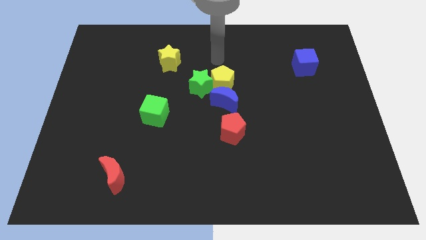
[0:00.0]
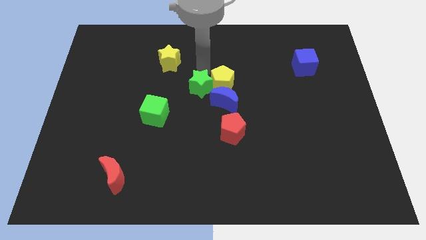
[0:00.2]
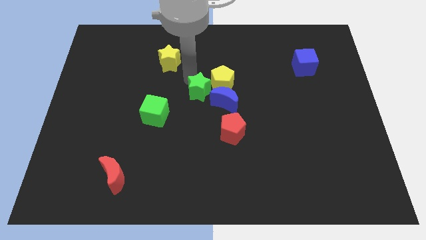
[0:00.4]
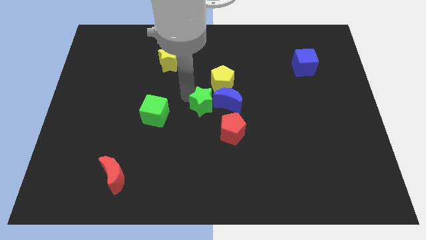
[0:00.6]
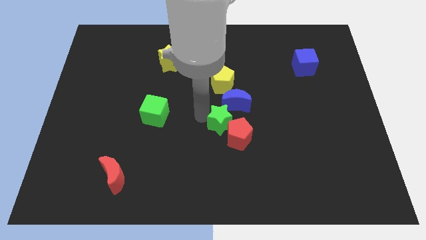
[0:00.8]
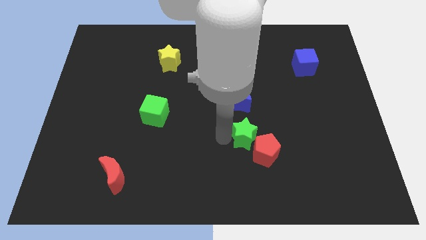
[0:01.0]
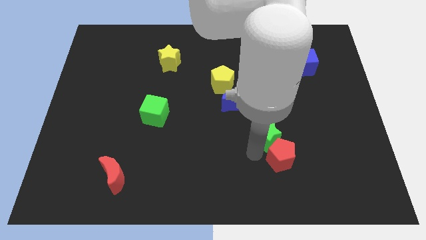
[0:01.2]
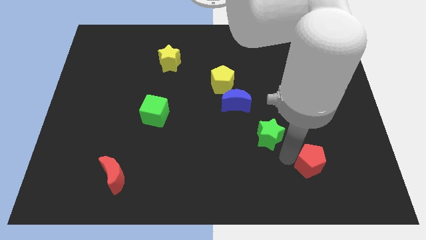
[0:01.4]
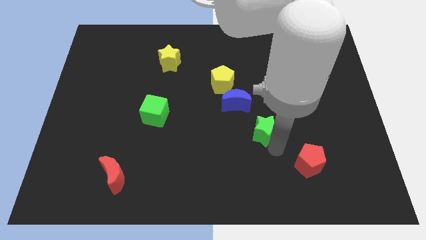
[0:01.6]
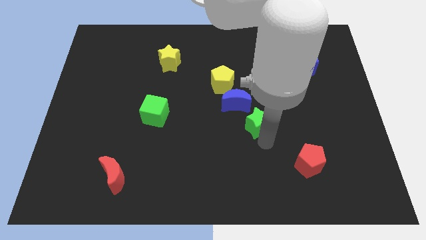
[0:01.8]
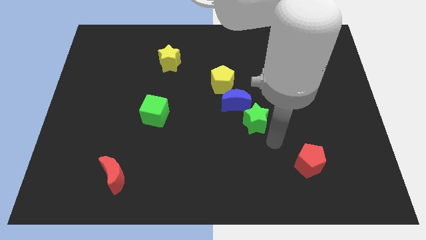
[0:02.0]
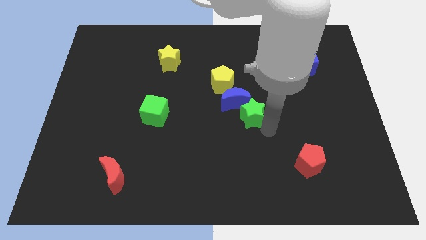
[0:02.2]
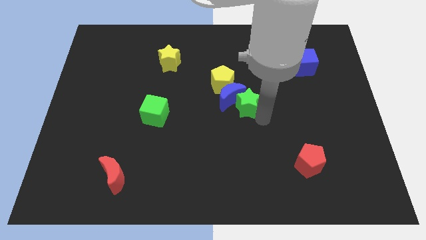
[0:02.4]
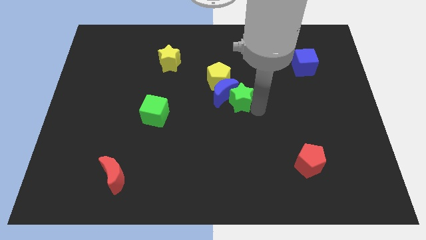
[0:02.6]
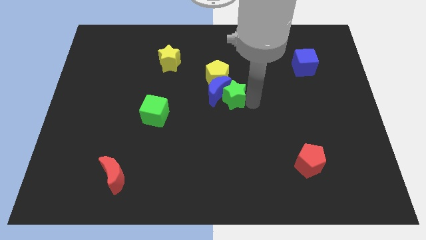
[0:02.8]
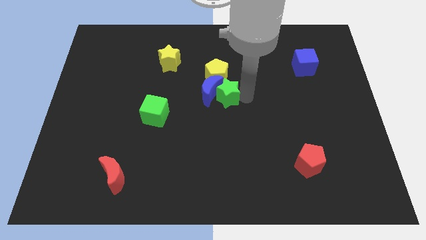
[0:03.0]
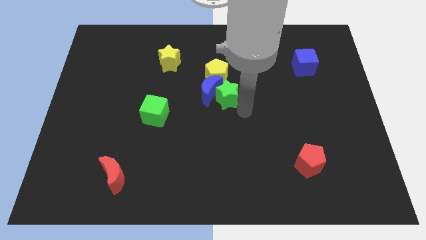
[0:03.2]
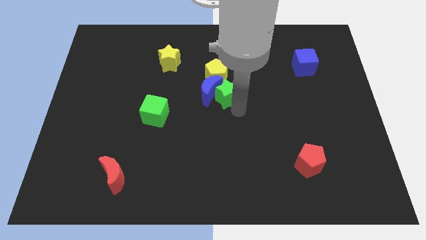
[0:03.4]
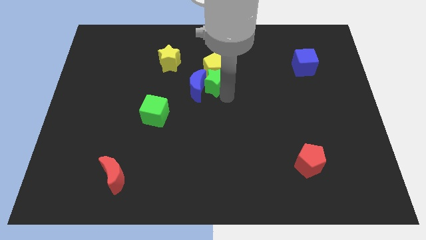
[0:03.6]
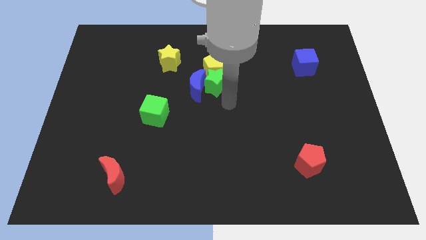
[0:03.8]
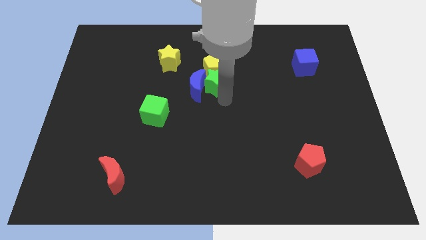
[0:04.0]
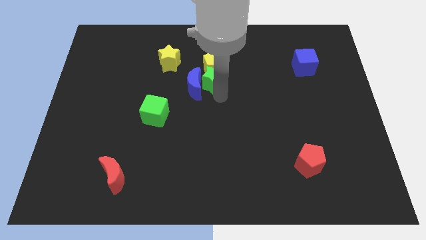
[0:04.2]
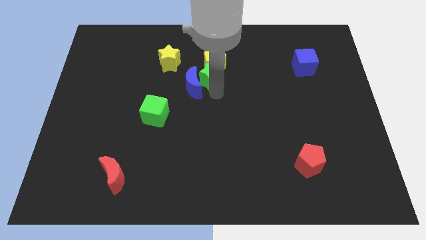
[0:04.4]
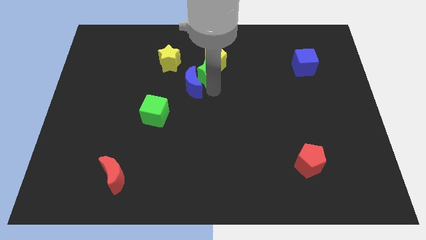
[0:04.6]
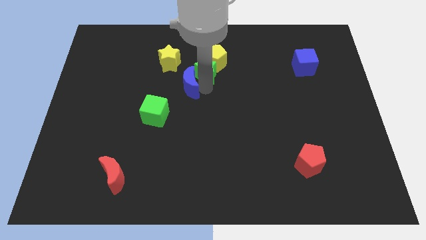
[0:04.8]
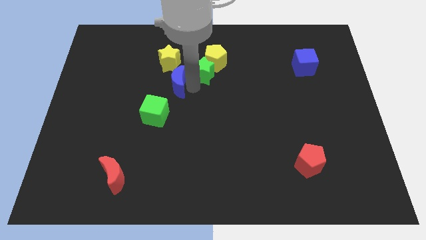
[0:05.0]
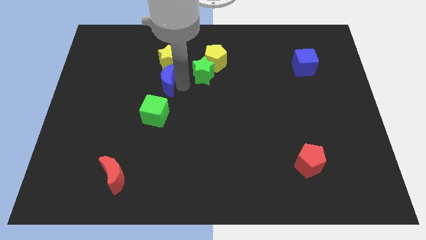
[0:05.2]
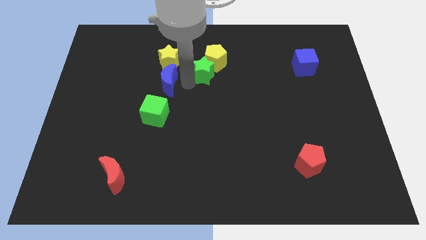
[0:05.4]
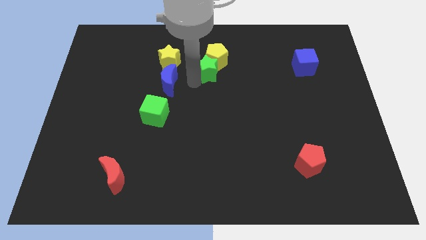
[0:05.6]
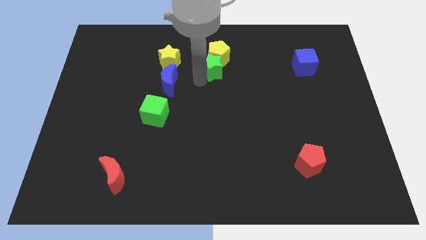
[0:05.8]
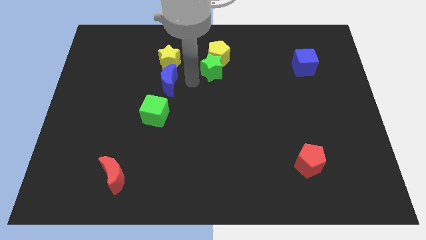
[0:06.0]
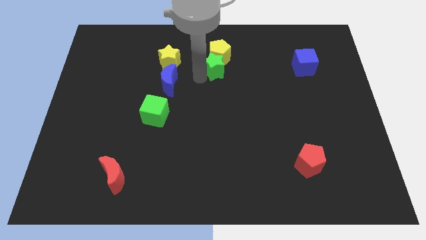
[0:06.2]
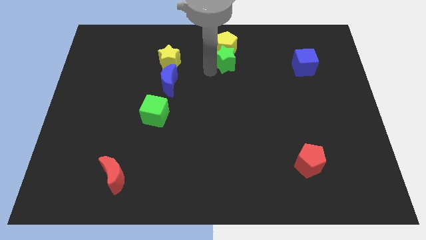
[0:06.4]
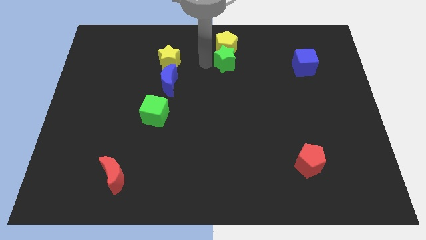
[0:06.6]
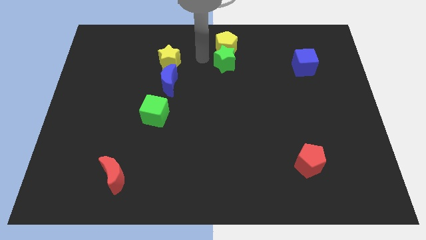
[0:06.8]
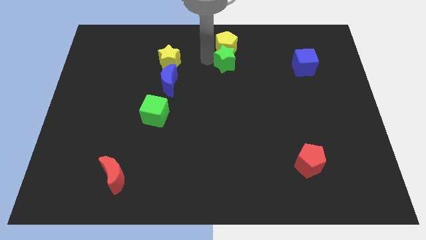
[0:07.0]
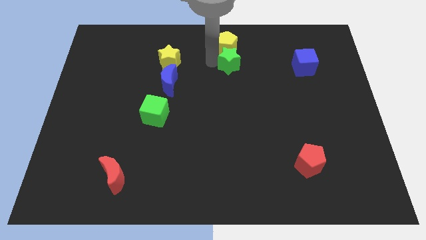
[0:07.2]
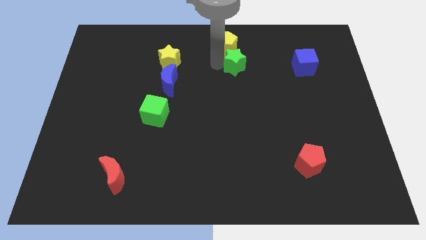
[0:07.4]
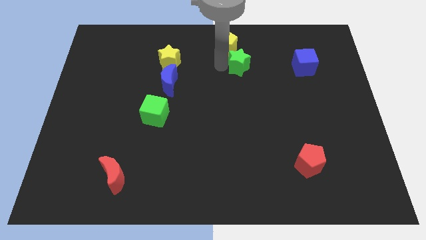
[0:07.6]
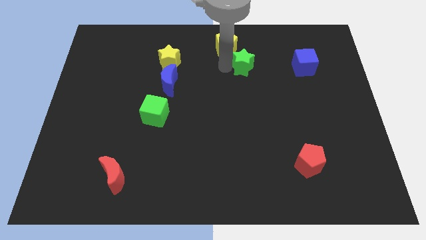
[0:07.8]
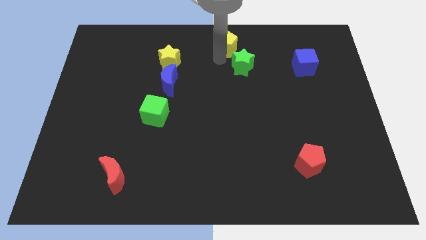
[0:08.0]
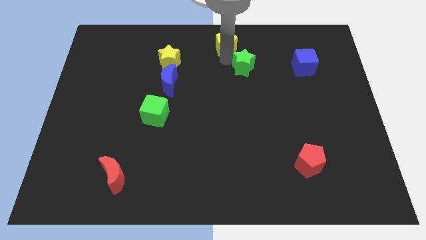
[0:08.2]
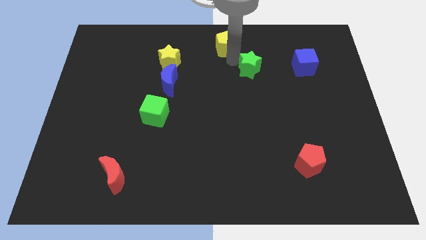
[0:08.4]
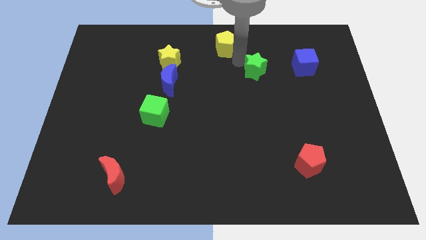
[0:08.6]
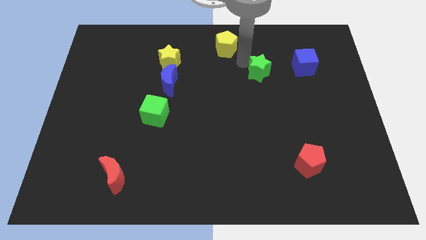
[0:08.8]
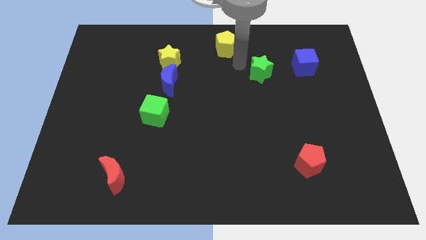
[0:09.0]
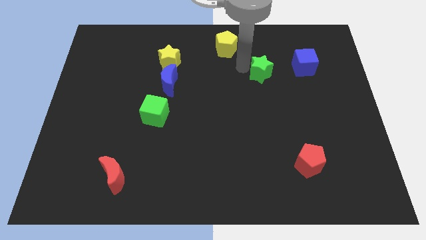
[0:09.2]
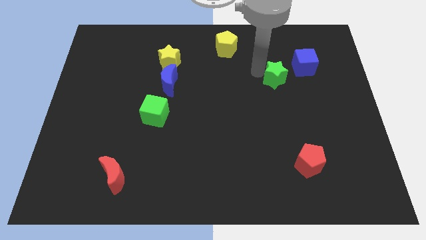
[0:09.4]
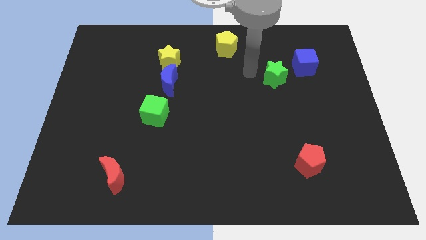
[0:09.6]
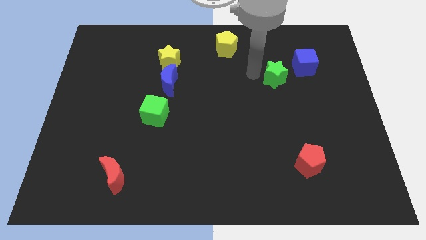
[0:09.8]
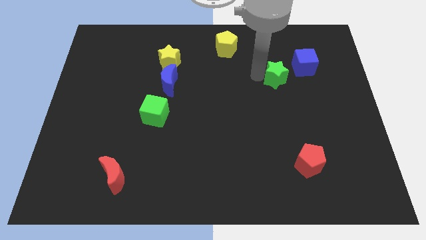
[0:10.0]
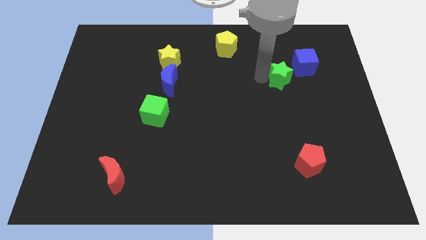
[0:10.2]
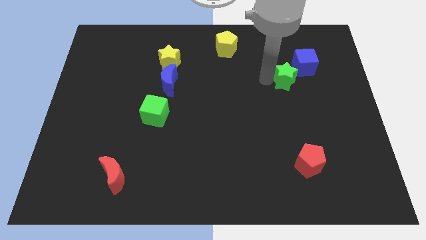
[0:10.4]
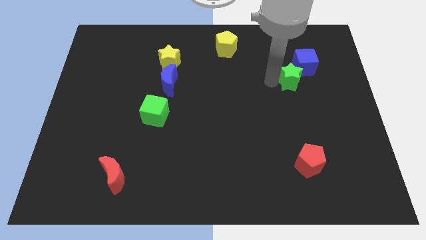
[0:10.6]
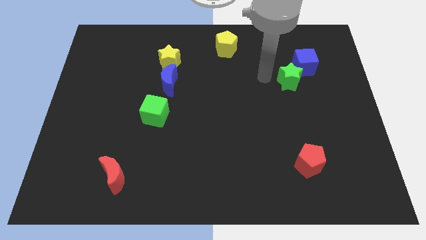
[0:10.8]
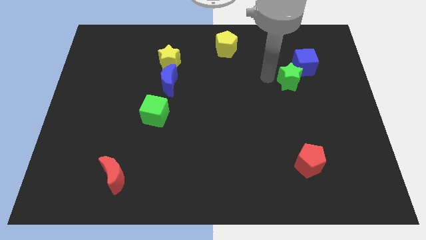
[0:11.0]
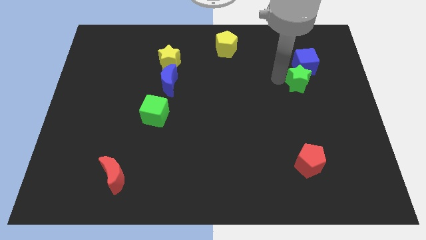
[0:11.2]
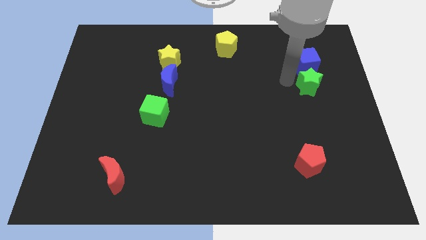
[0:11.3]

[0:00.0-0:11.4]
slide the green star to the bottom right side of the blue cube

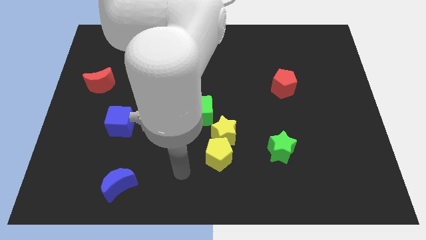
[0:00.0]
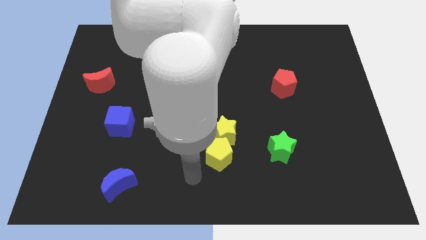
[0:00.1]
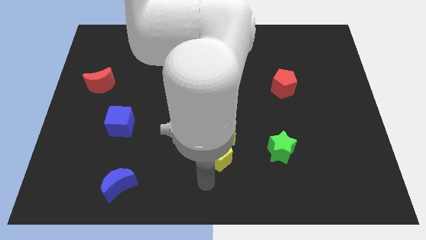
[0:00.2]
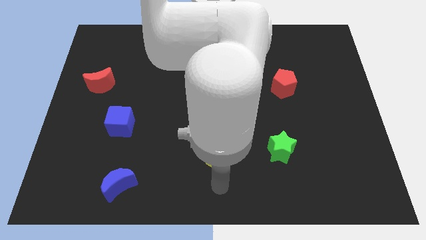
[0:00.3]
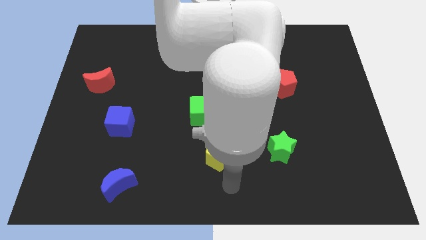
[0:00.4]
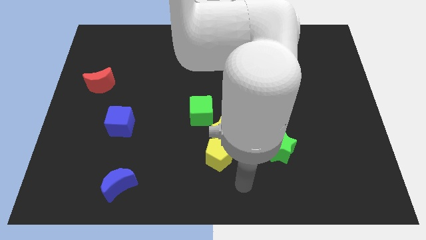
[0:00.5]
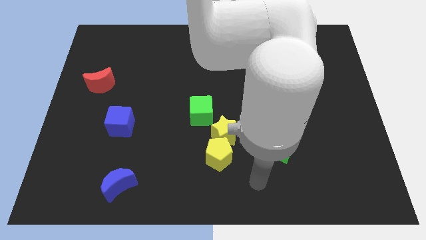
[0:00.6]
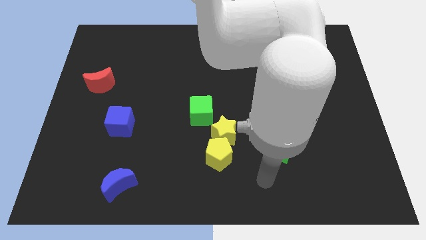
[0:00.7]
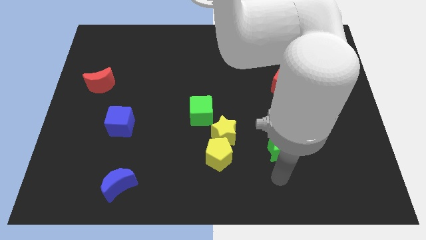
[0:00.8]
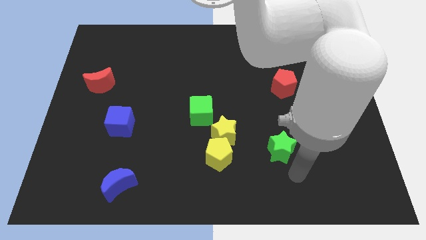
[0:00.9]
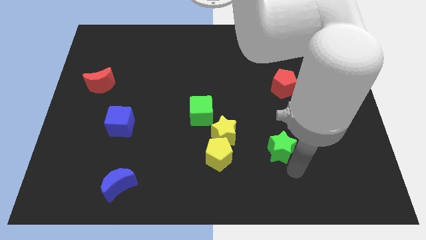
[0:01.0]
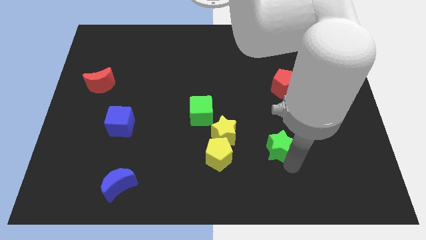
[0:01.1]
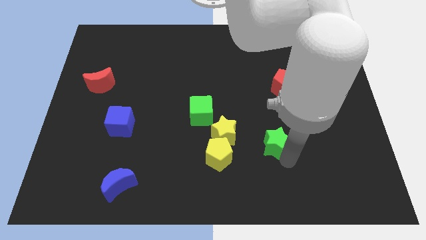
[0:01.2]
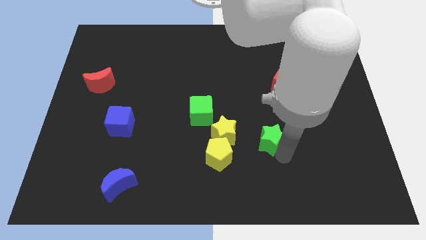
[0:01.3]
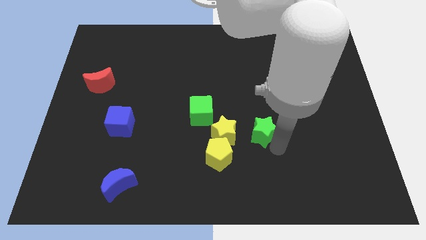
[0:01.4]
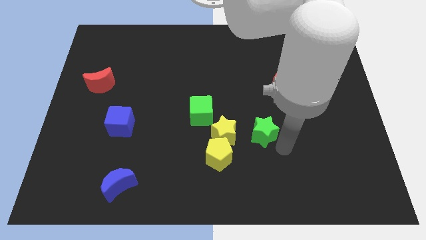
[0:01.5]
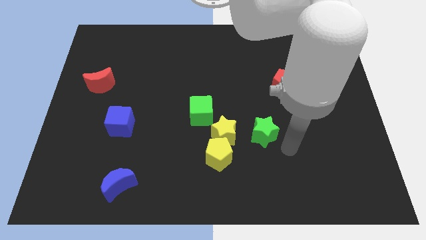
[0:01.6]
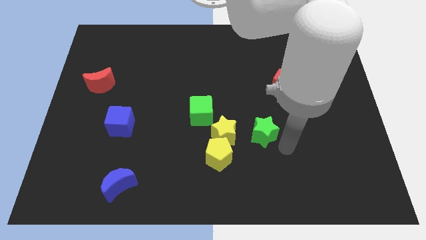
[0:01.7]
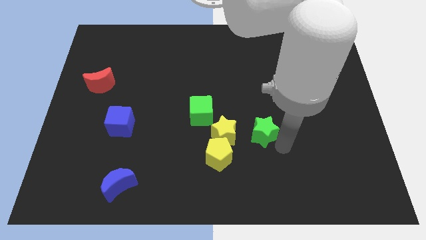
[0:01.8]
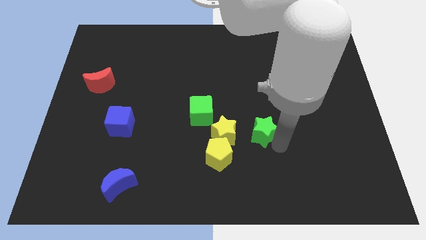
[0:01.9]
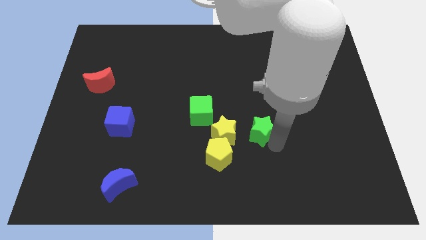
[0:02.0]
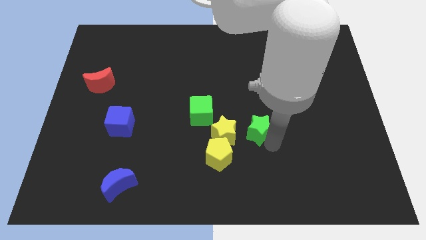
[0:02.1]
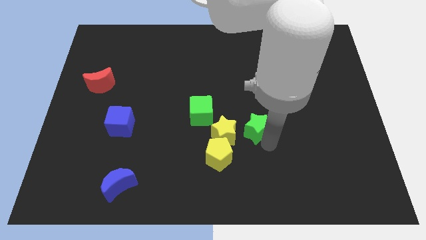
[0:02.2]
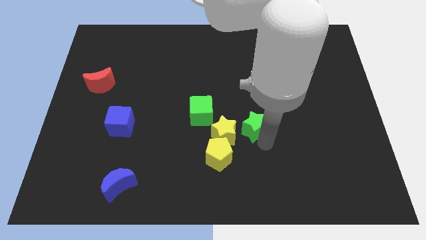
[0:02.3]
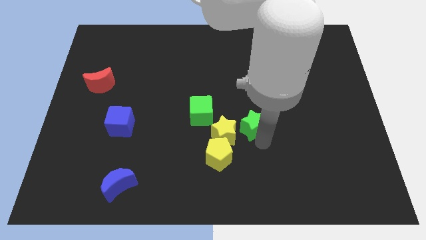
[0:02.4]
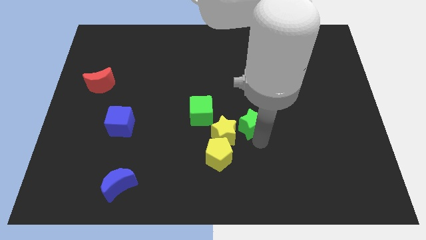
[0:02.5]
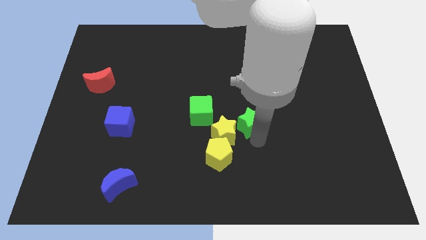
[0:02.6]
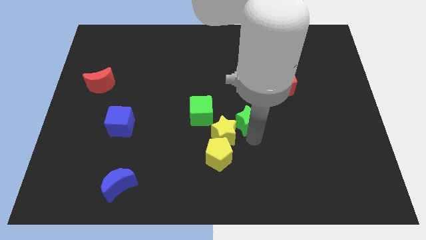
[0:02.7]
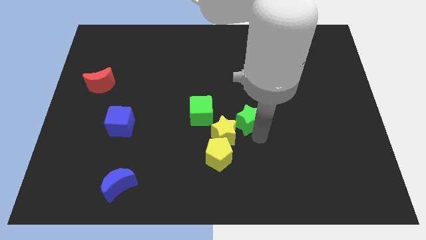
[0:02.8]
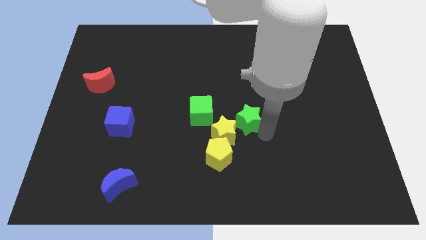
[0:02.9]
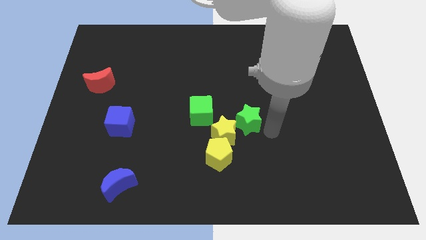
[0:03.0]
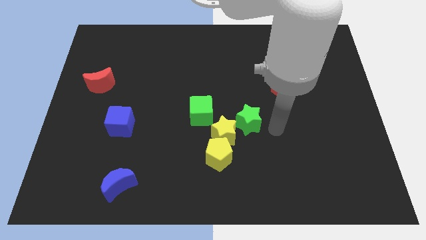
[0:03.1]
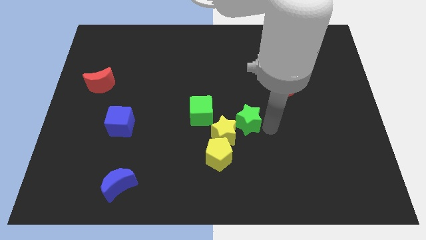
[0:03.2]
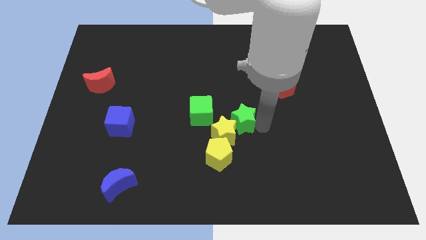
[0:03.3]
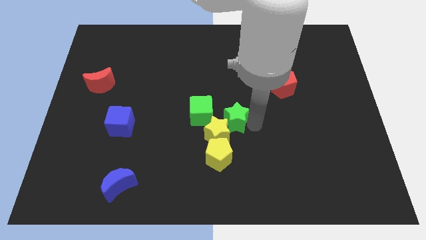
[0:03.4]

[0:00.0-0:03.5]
slide the green star above the yellow pentagon
